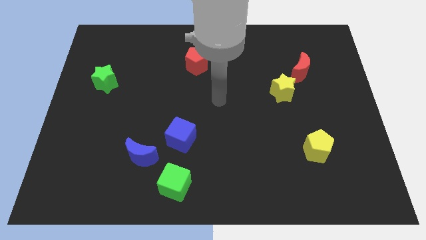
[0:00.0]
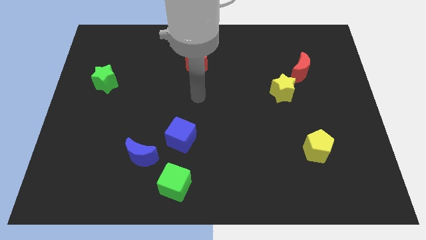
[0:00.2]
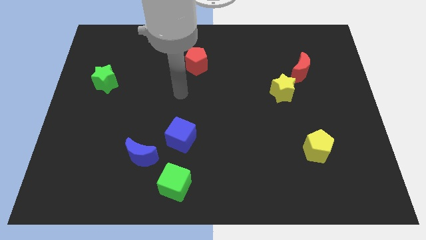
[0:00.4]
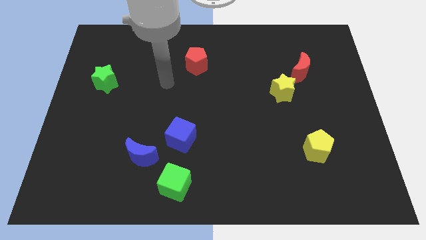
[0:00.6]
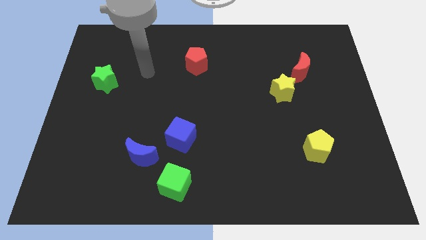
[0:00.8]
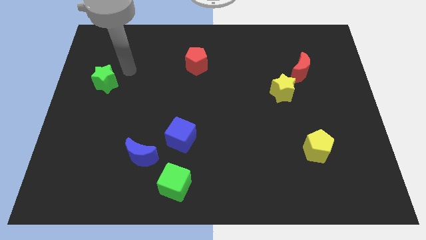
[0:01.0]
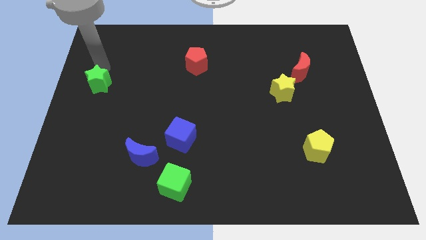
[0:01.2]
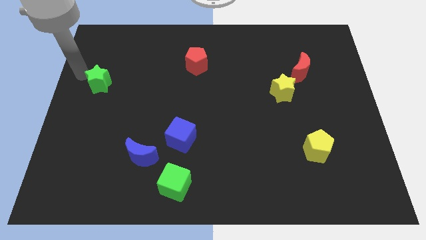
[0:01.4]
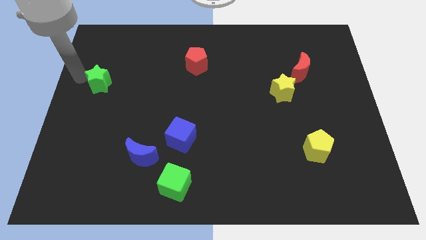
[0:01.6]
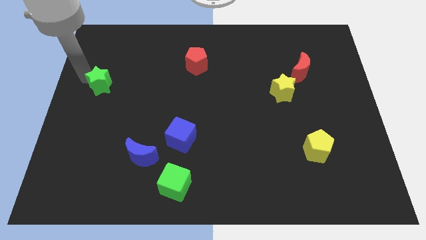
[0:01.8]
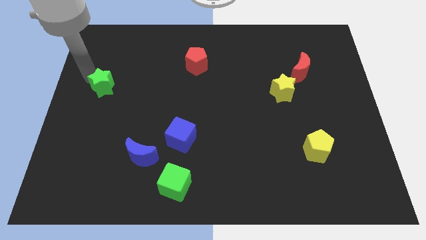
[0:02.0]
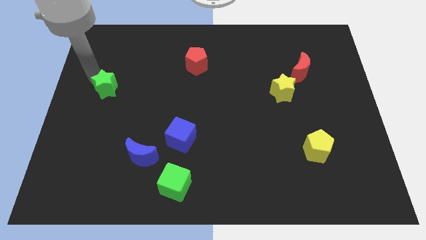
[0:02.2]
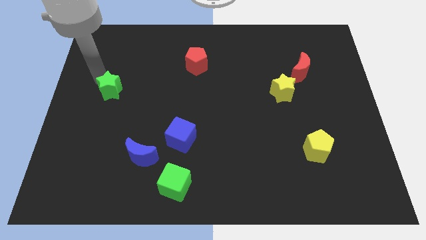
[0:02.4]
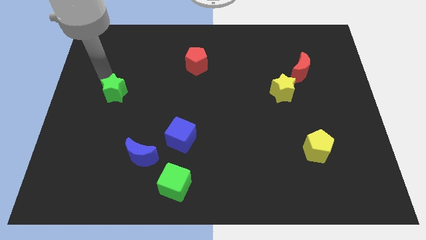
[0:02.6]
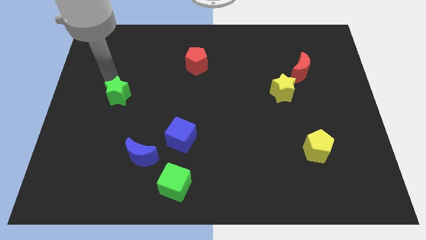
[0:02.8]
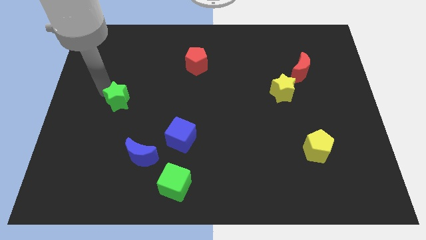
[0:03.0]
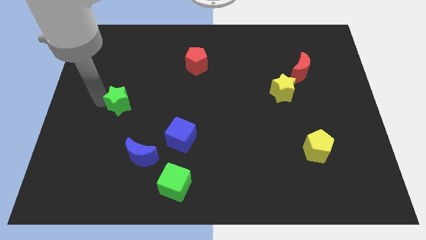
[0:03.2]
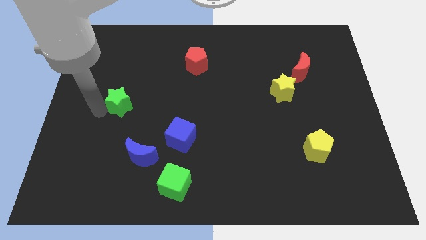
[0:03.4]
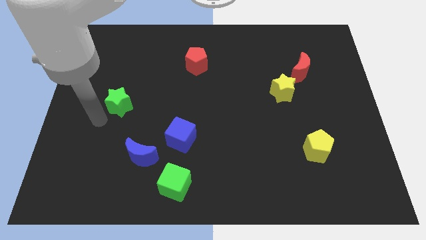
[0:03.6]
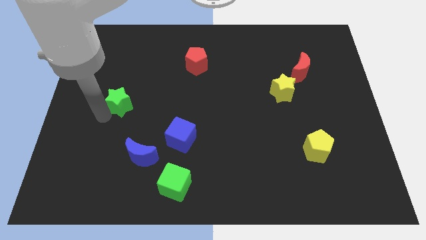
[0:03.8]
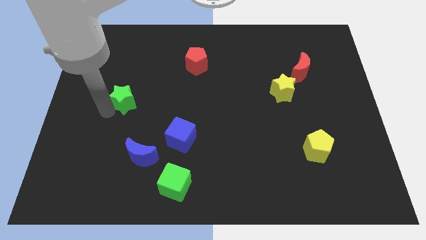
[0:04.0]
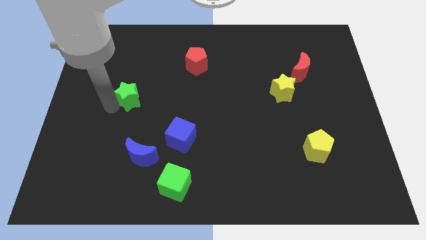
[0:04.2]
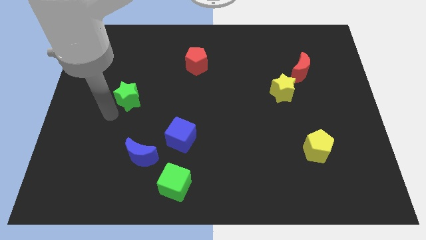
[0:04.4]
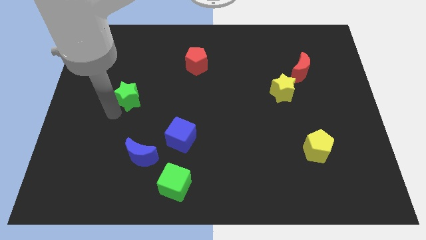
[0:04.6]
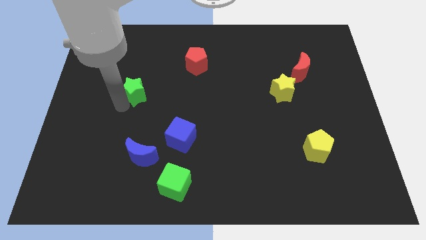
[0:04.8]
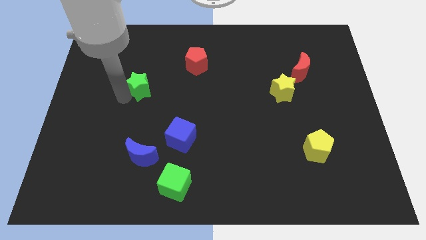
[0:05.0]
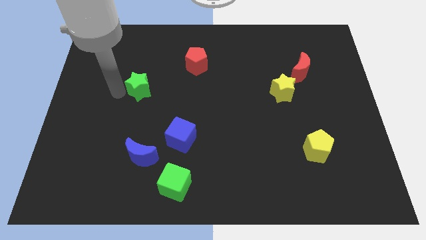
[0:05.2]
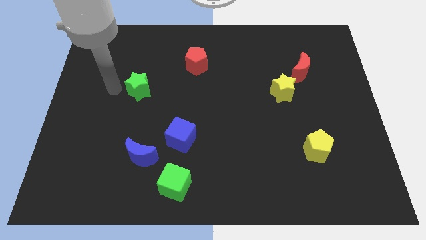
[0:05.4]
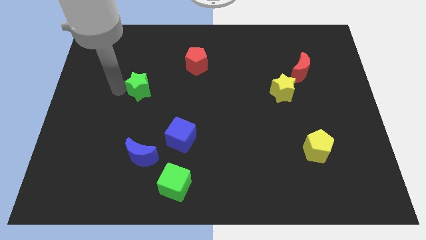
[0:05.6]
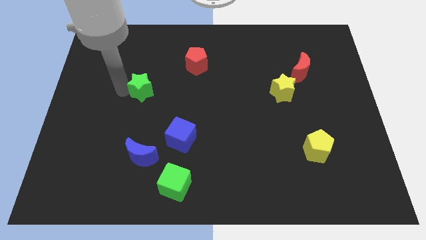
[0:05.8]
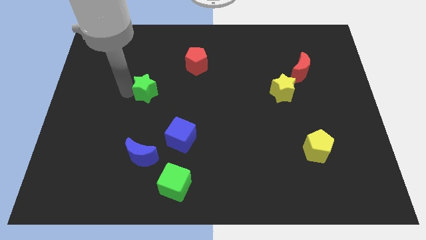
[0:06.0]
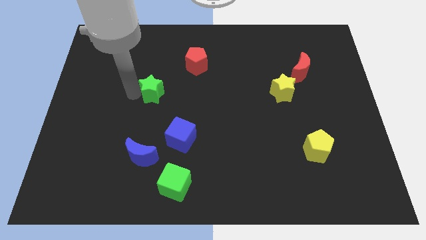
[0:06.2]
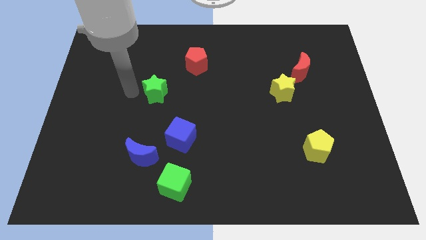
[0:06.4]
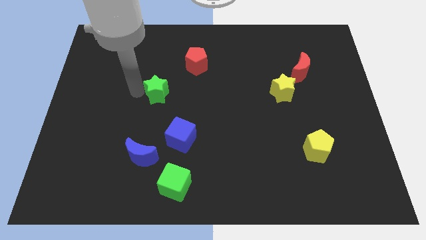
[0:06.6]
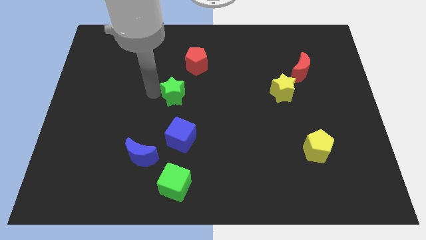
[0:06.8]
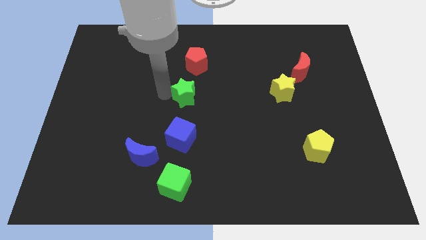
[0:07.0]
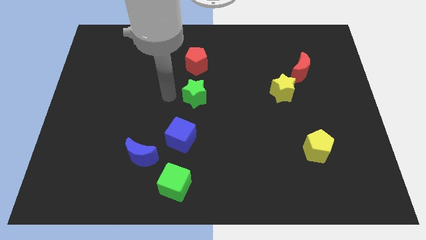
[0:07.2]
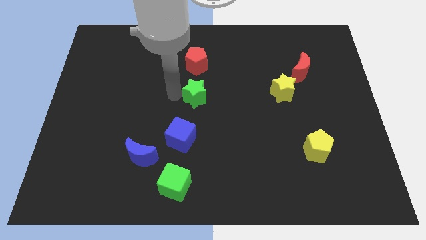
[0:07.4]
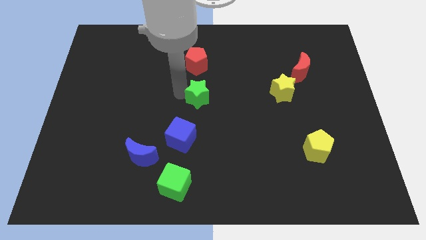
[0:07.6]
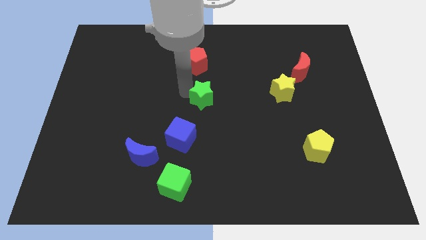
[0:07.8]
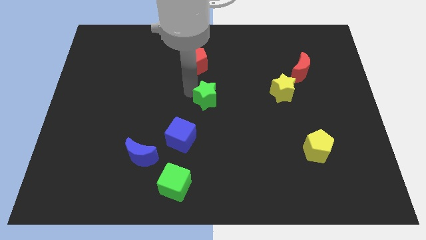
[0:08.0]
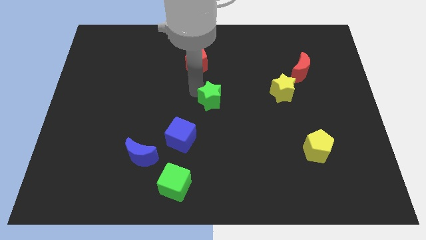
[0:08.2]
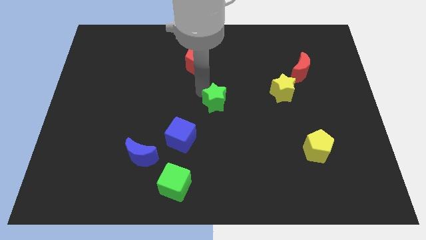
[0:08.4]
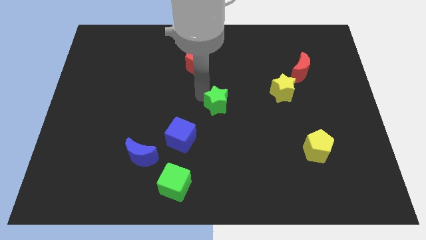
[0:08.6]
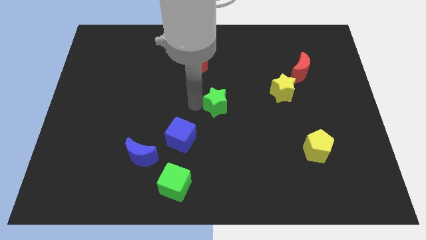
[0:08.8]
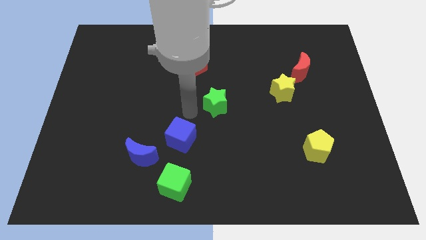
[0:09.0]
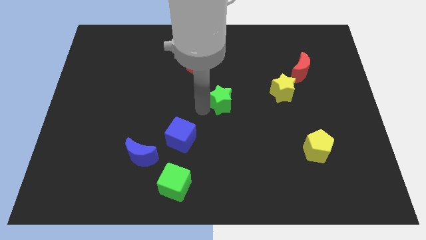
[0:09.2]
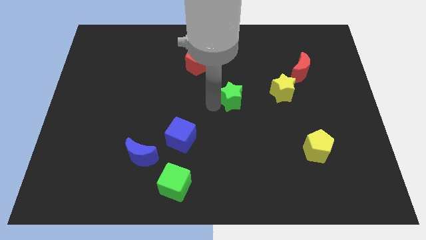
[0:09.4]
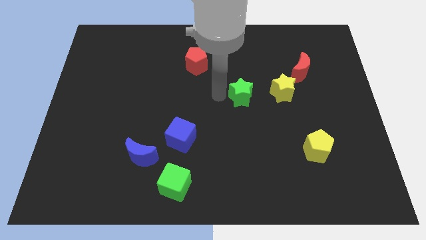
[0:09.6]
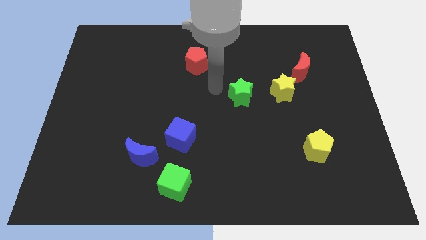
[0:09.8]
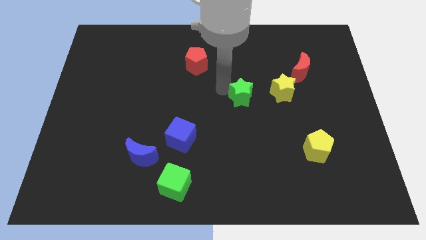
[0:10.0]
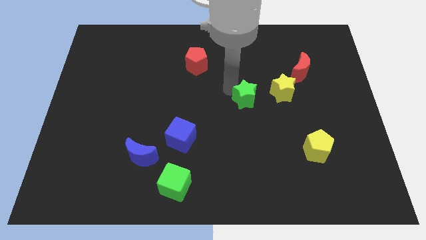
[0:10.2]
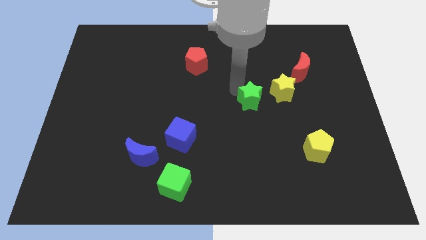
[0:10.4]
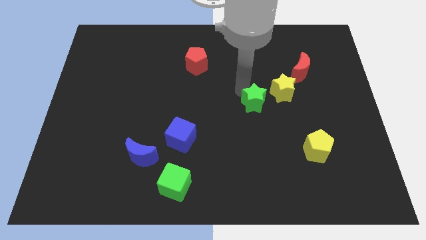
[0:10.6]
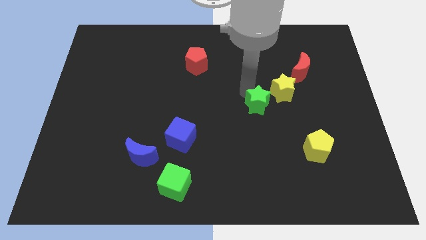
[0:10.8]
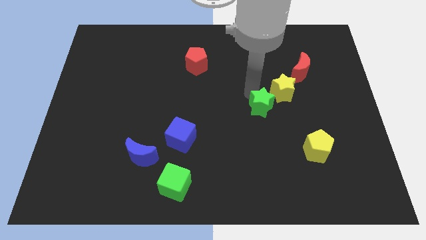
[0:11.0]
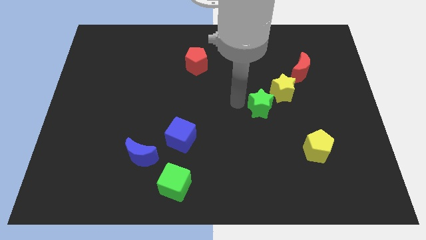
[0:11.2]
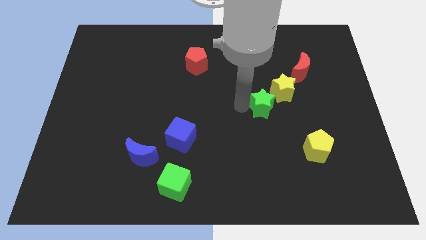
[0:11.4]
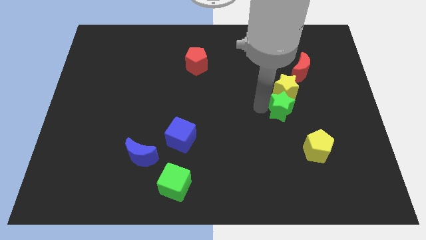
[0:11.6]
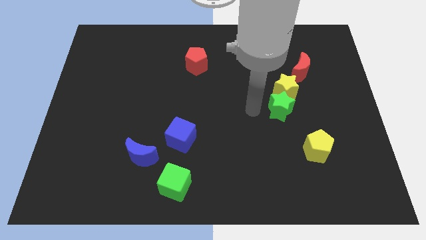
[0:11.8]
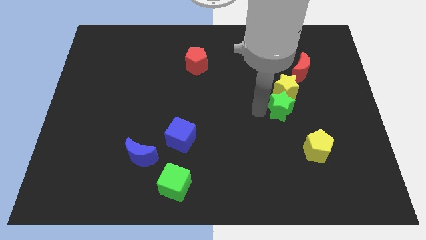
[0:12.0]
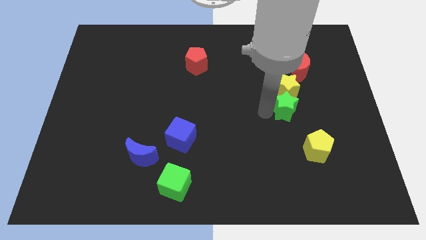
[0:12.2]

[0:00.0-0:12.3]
push the green star diagonally down and to the right of the yellow star

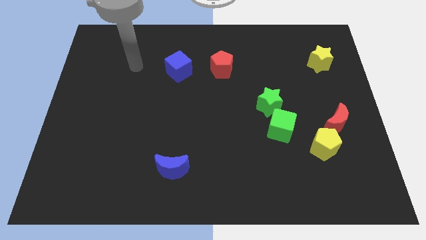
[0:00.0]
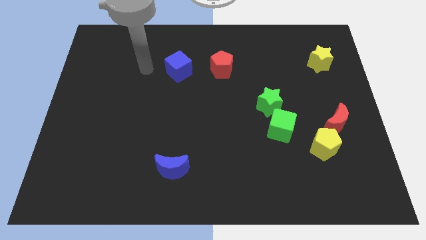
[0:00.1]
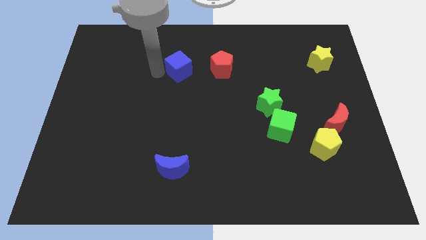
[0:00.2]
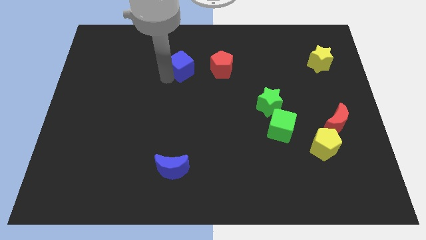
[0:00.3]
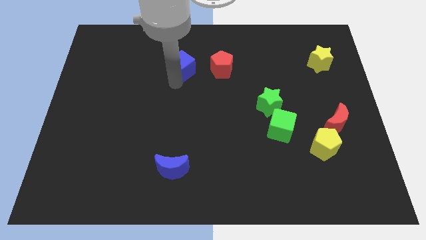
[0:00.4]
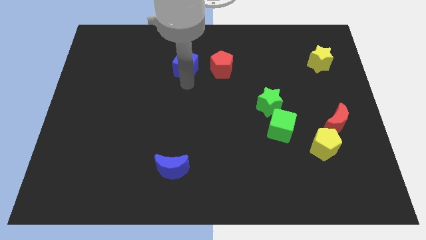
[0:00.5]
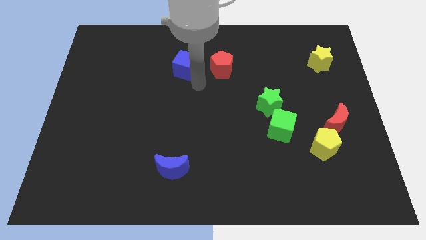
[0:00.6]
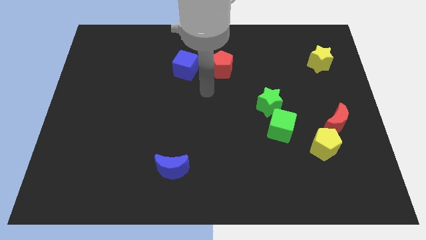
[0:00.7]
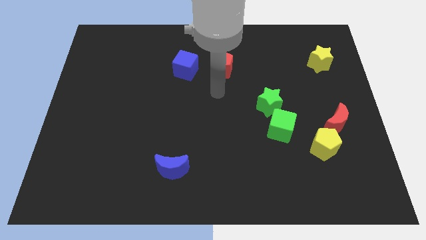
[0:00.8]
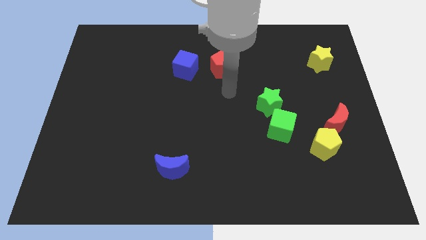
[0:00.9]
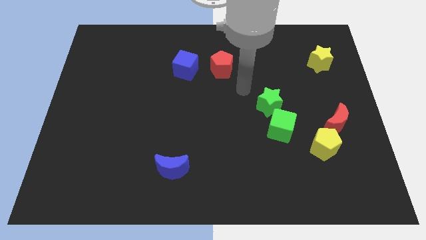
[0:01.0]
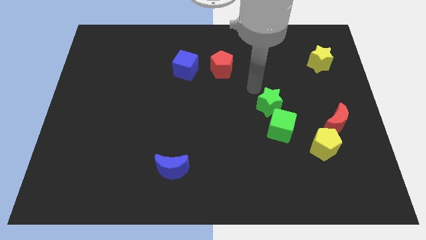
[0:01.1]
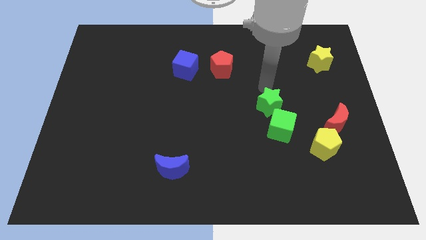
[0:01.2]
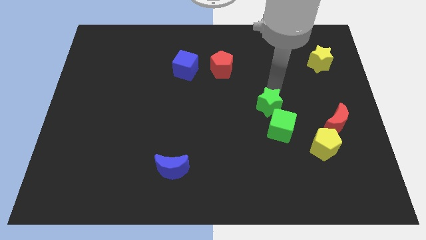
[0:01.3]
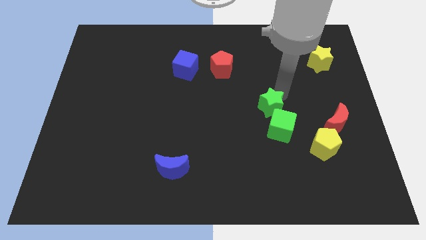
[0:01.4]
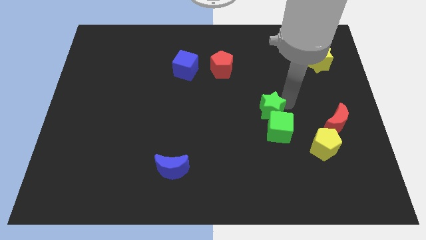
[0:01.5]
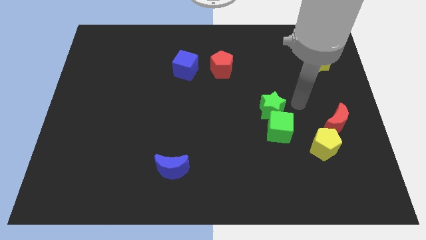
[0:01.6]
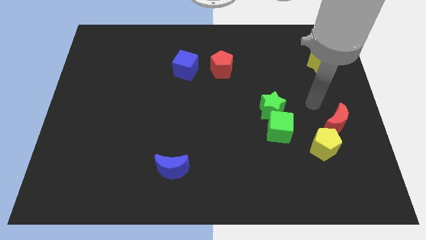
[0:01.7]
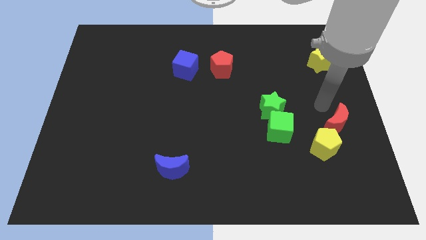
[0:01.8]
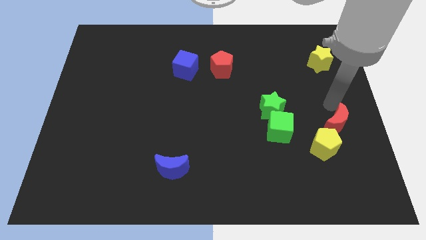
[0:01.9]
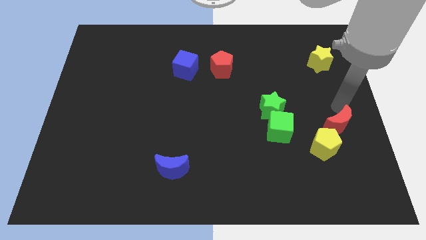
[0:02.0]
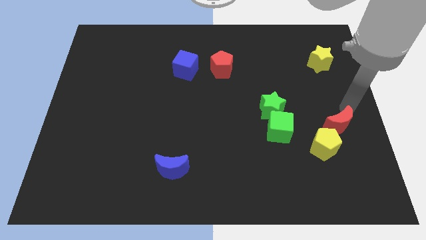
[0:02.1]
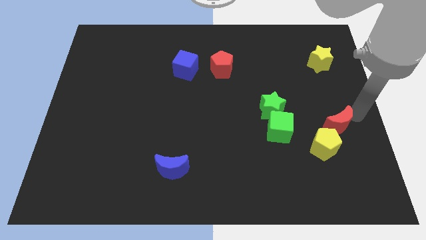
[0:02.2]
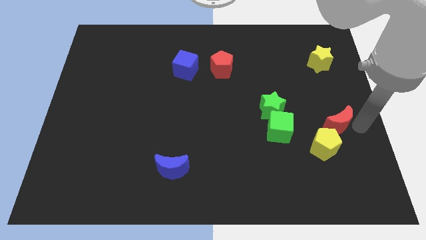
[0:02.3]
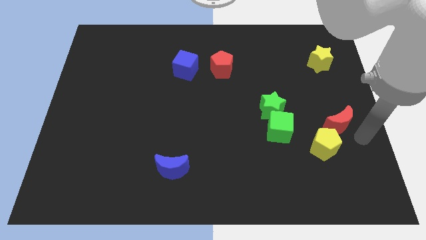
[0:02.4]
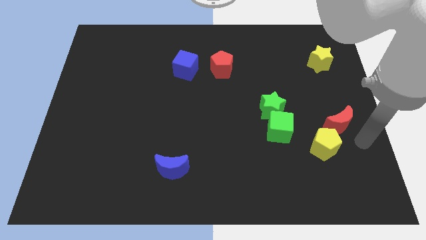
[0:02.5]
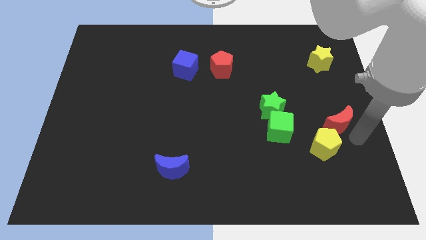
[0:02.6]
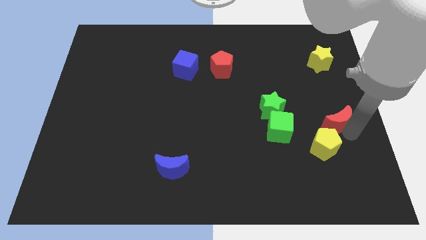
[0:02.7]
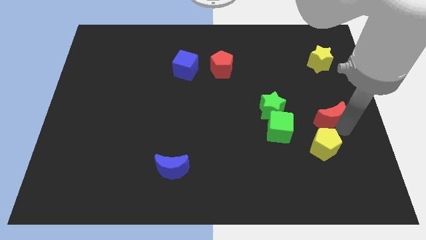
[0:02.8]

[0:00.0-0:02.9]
slide the red moon right of the green star
